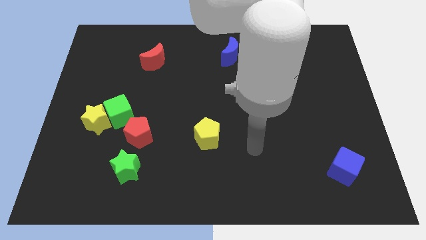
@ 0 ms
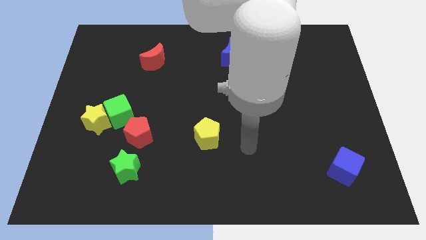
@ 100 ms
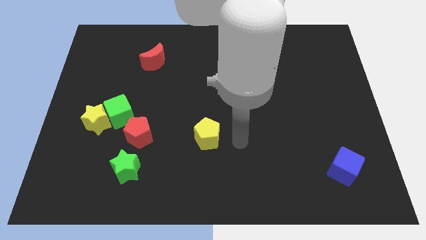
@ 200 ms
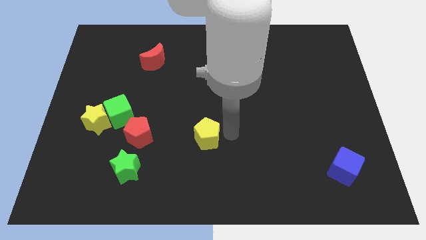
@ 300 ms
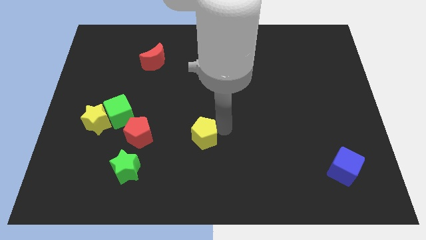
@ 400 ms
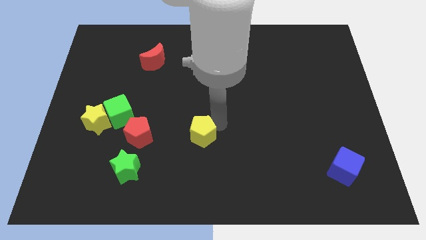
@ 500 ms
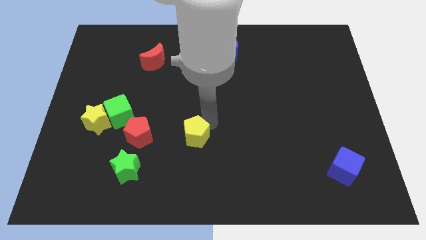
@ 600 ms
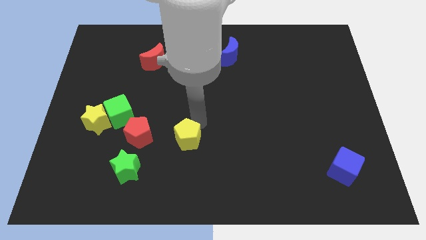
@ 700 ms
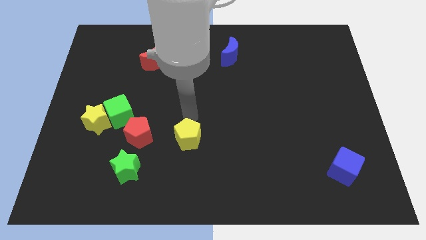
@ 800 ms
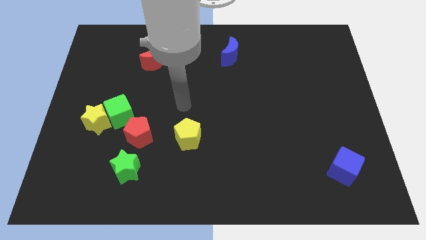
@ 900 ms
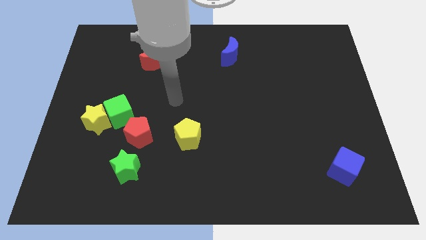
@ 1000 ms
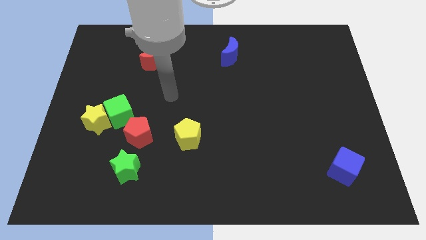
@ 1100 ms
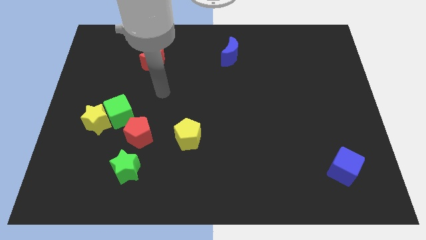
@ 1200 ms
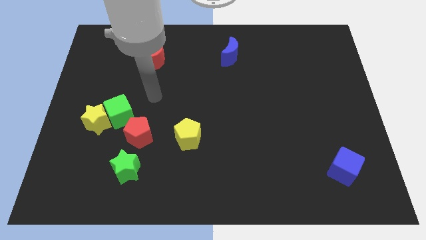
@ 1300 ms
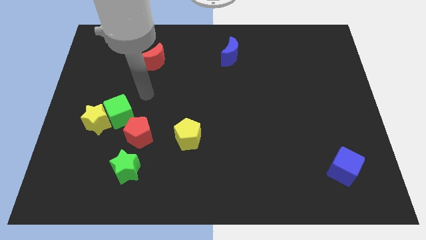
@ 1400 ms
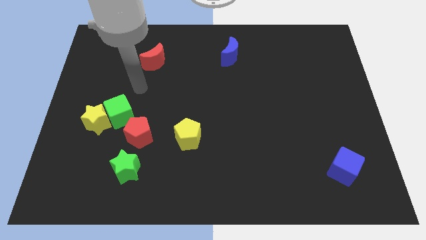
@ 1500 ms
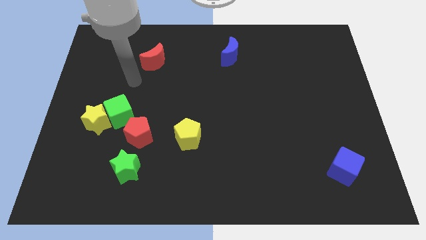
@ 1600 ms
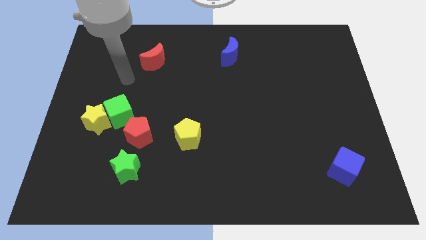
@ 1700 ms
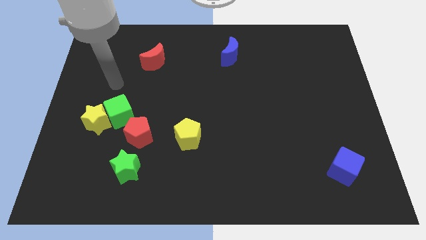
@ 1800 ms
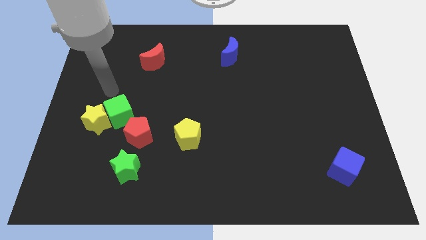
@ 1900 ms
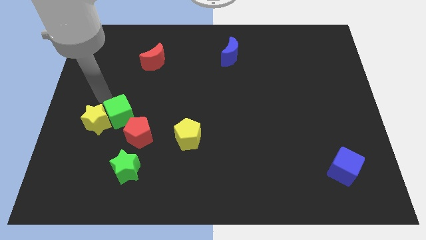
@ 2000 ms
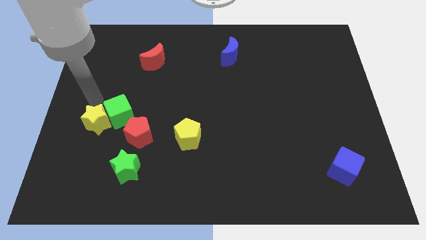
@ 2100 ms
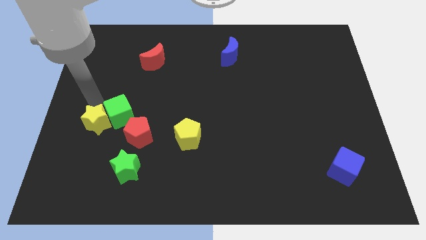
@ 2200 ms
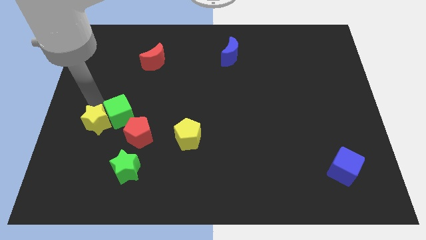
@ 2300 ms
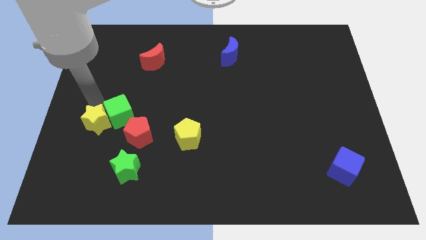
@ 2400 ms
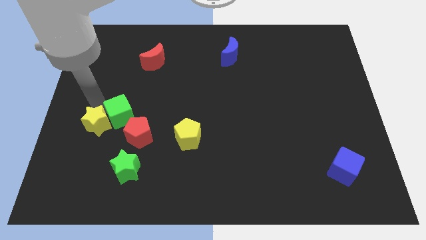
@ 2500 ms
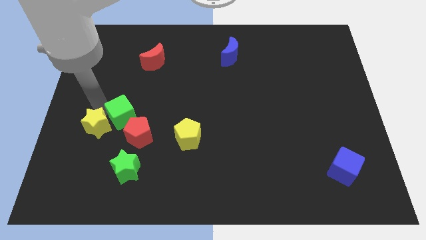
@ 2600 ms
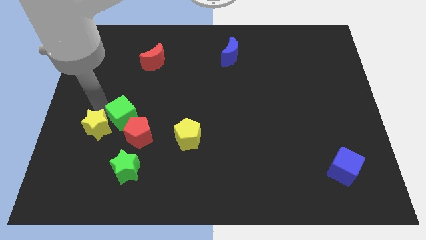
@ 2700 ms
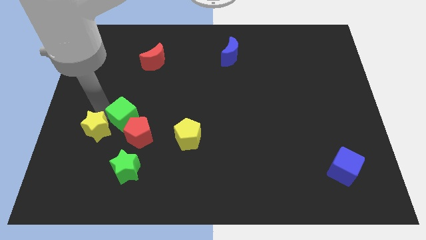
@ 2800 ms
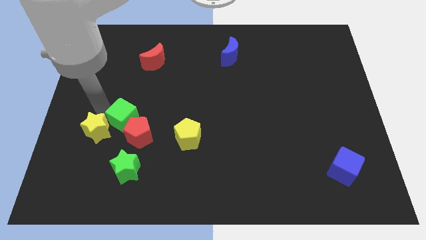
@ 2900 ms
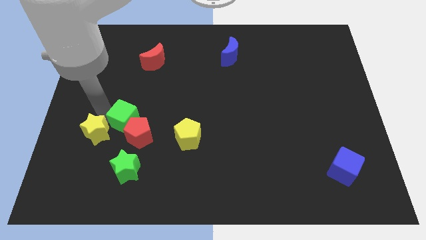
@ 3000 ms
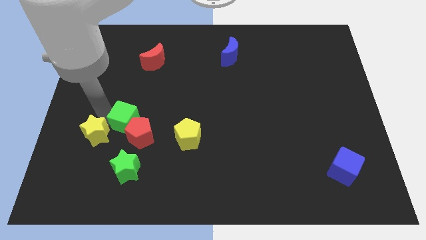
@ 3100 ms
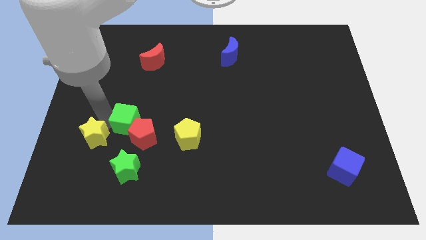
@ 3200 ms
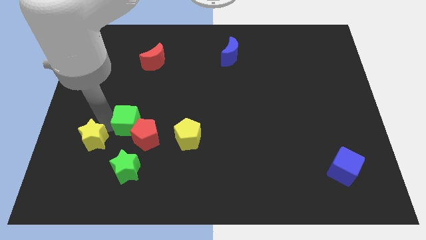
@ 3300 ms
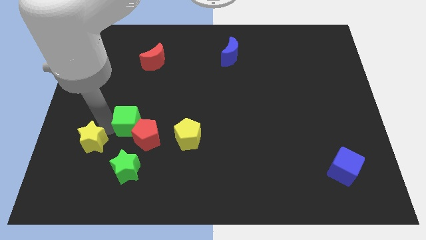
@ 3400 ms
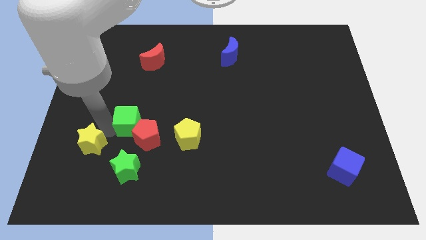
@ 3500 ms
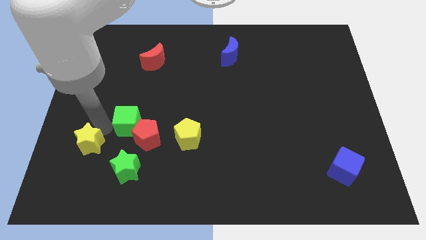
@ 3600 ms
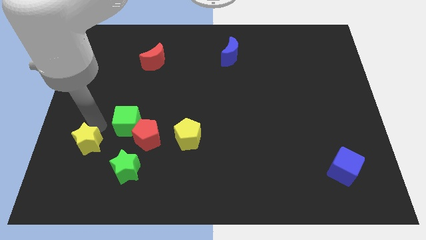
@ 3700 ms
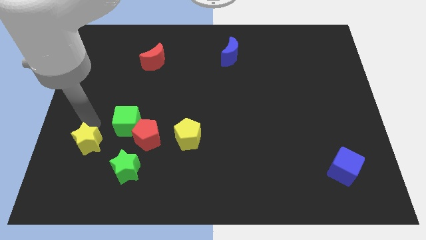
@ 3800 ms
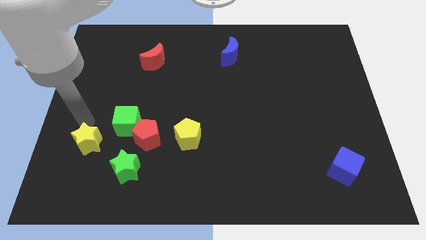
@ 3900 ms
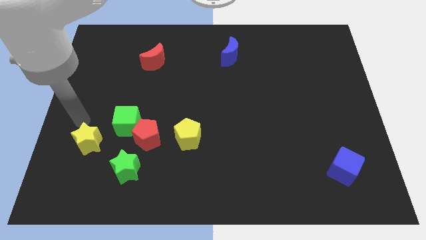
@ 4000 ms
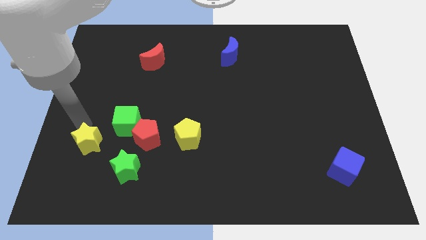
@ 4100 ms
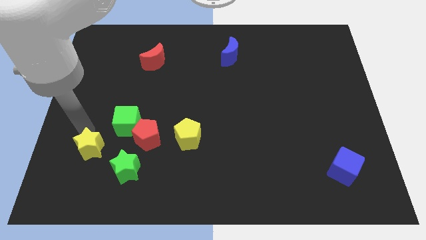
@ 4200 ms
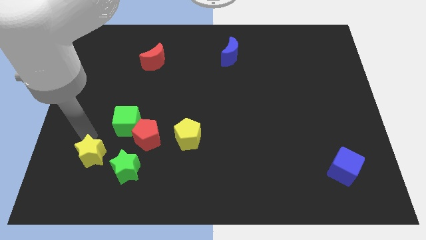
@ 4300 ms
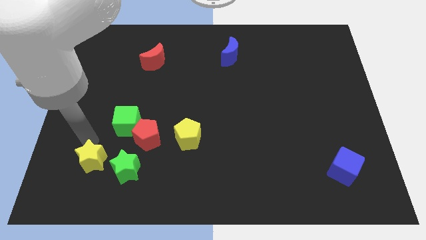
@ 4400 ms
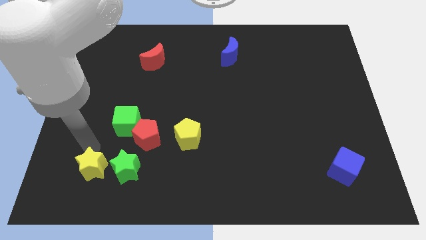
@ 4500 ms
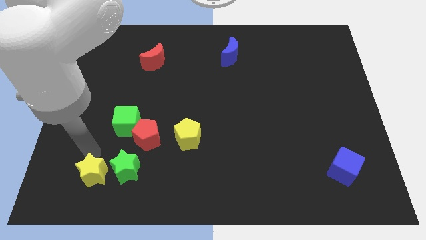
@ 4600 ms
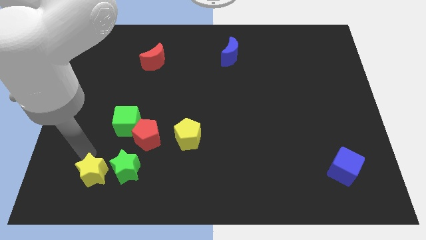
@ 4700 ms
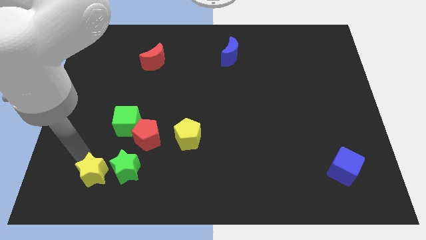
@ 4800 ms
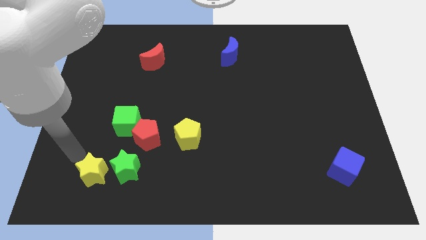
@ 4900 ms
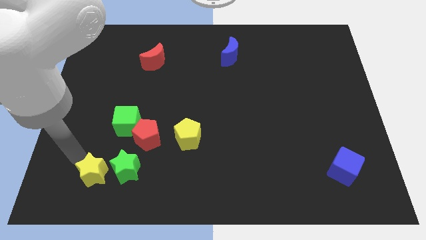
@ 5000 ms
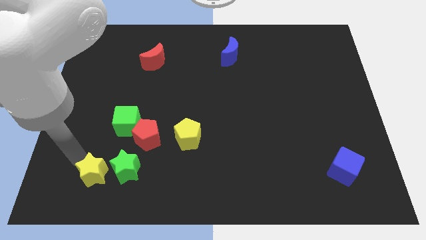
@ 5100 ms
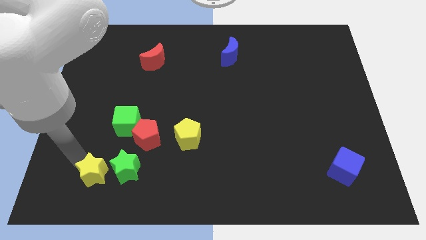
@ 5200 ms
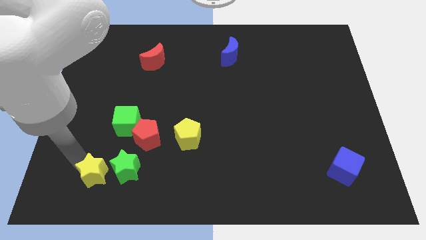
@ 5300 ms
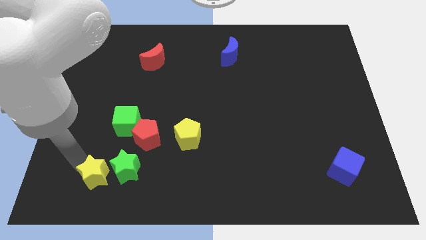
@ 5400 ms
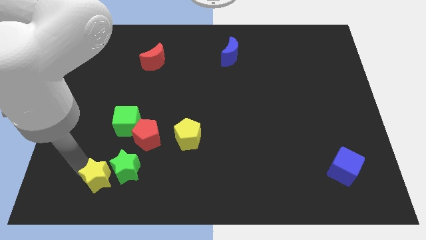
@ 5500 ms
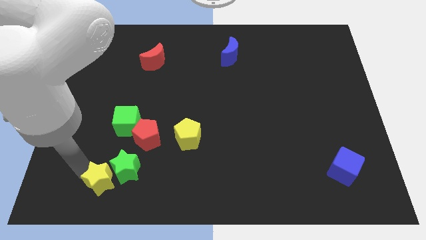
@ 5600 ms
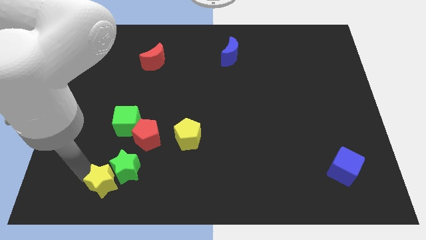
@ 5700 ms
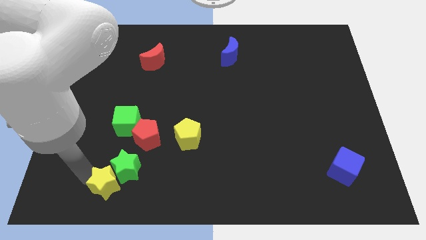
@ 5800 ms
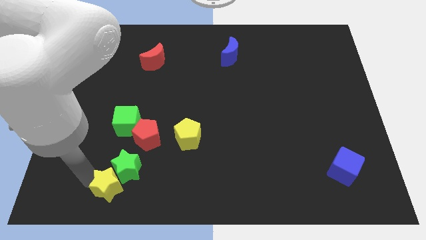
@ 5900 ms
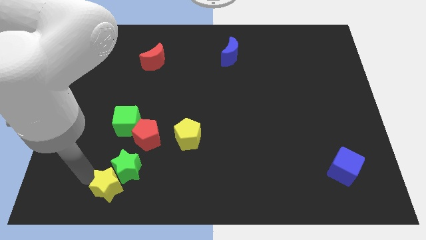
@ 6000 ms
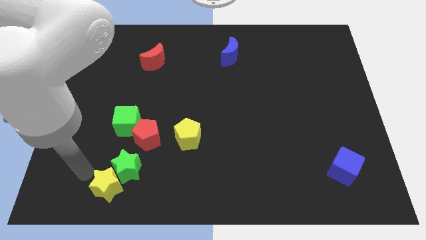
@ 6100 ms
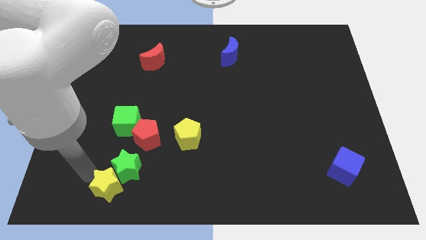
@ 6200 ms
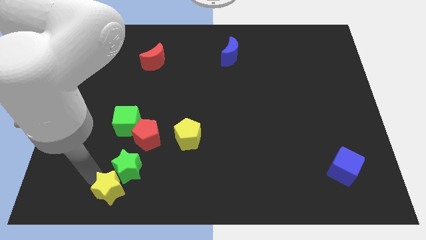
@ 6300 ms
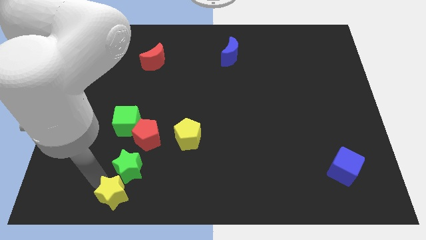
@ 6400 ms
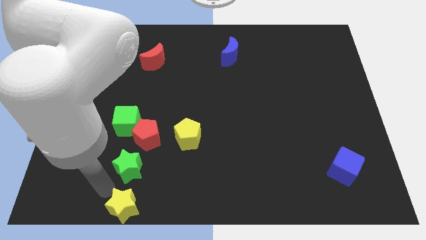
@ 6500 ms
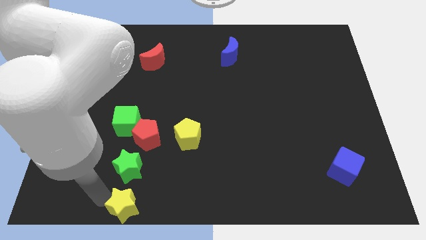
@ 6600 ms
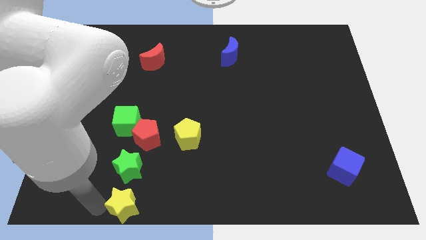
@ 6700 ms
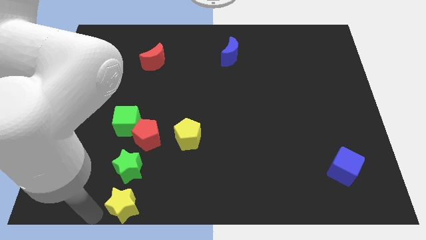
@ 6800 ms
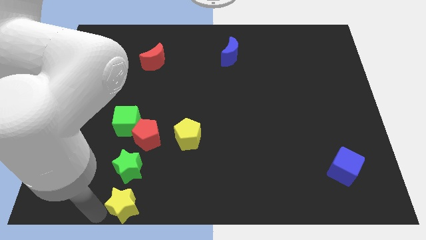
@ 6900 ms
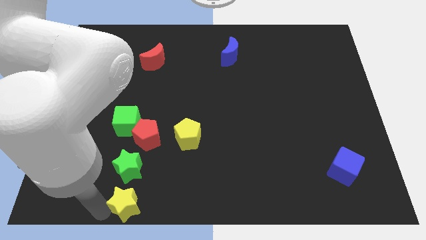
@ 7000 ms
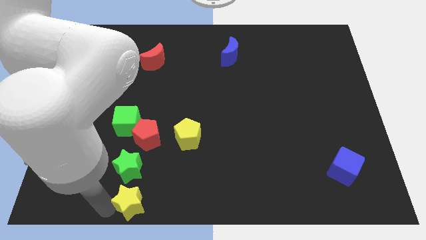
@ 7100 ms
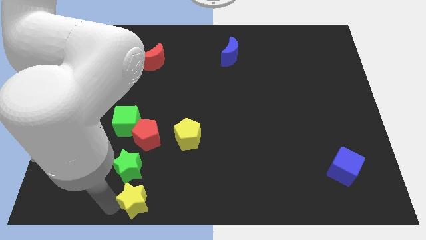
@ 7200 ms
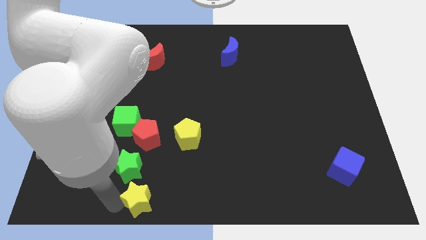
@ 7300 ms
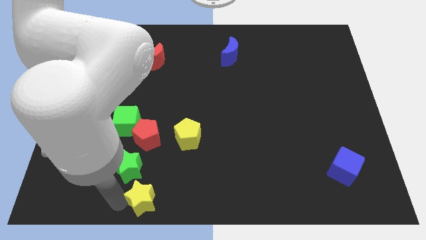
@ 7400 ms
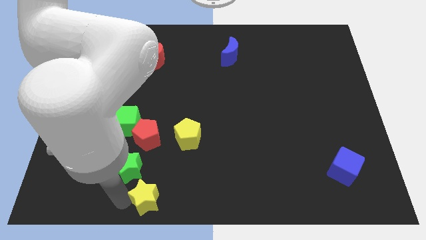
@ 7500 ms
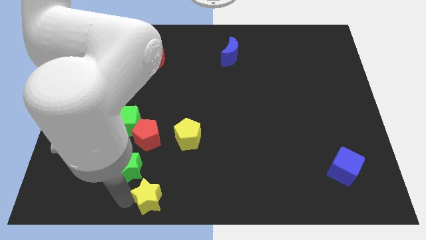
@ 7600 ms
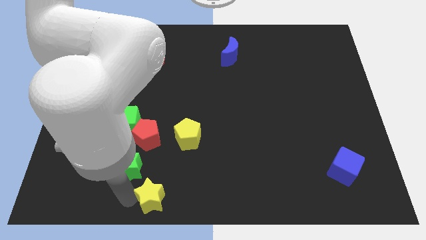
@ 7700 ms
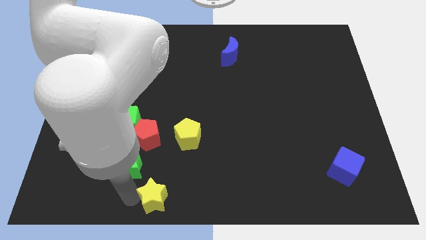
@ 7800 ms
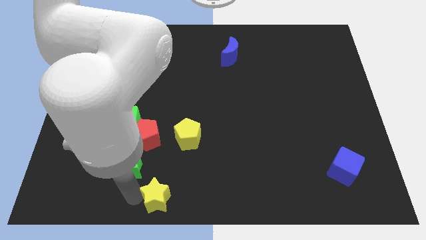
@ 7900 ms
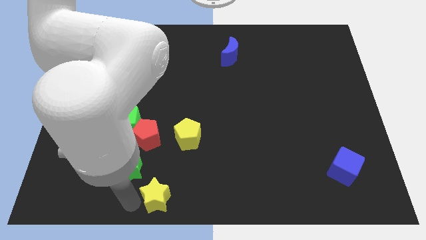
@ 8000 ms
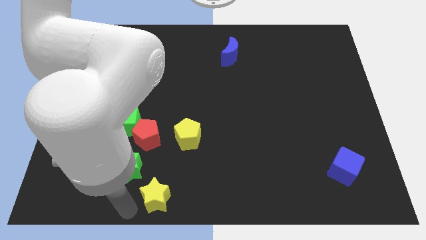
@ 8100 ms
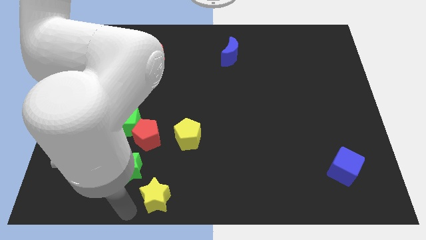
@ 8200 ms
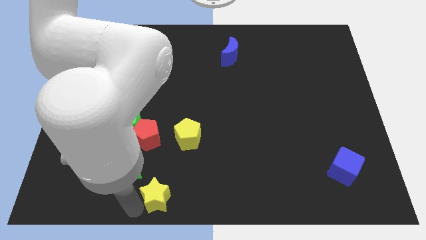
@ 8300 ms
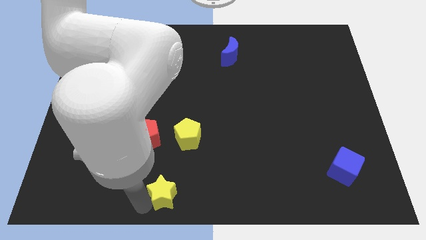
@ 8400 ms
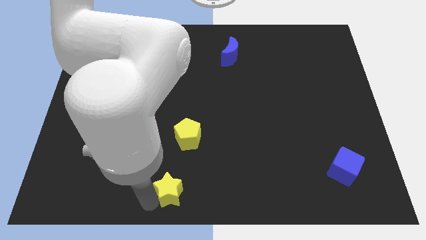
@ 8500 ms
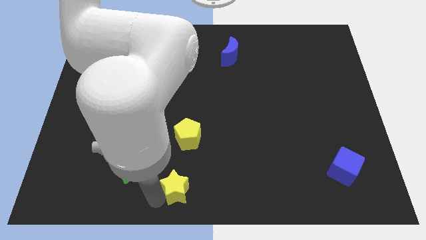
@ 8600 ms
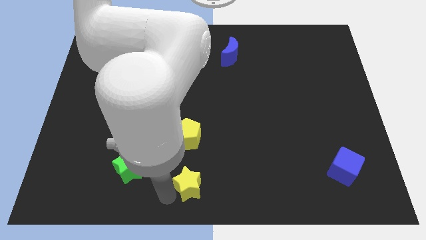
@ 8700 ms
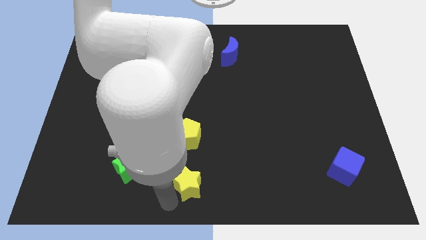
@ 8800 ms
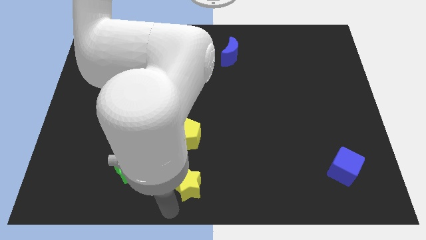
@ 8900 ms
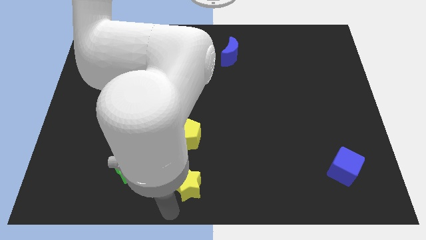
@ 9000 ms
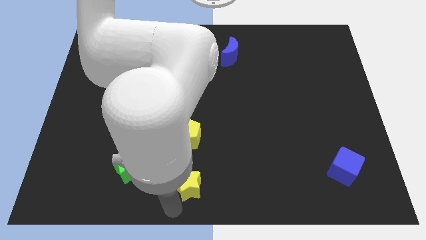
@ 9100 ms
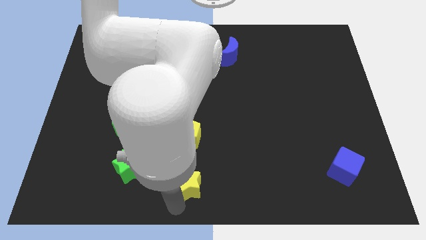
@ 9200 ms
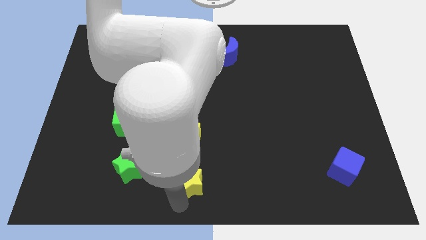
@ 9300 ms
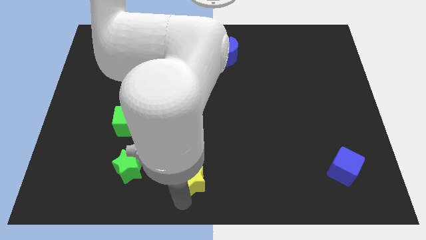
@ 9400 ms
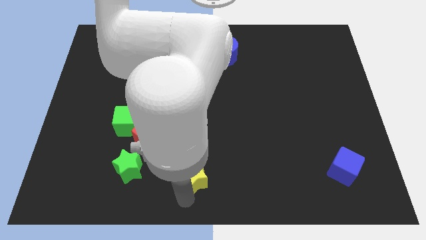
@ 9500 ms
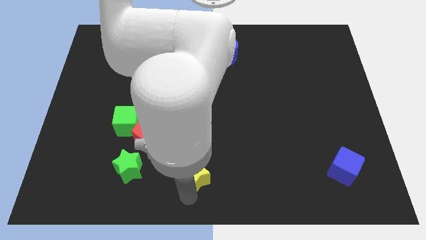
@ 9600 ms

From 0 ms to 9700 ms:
move the yellow star diagonally down and to the right of the yellow pentagon
